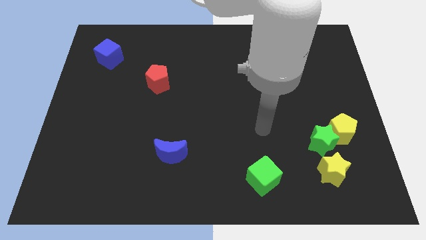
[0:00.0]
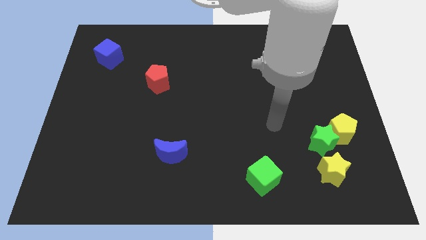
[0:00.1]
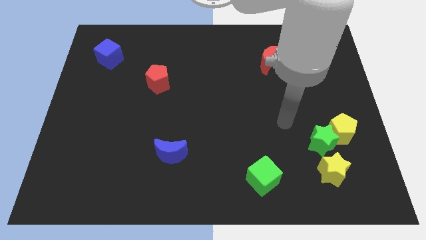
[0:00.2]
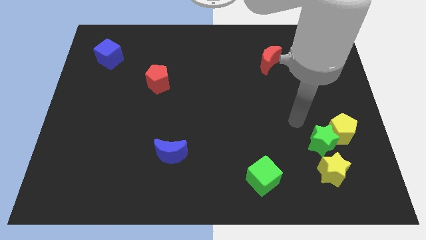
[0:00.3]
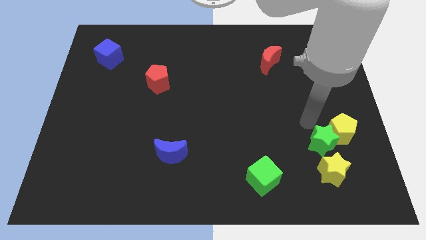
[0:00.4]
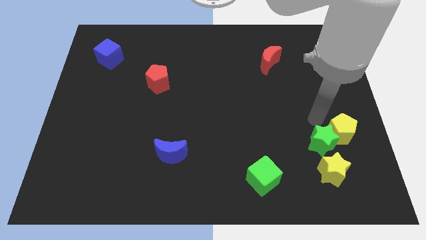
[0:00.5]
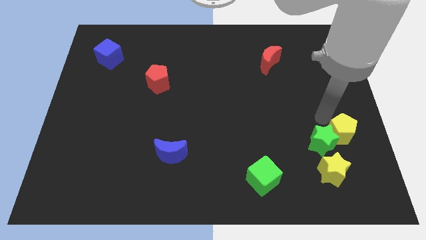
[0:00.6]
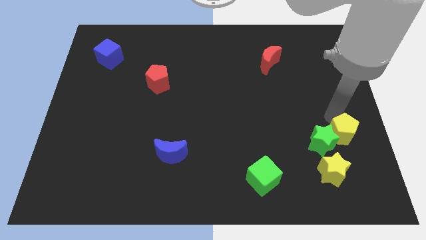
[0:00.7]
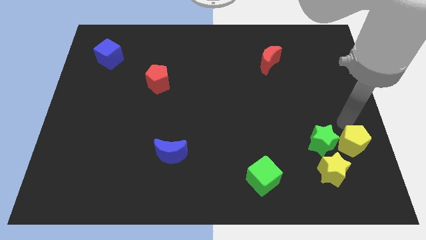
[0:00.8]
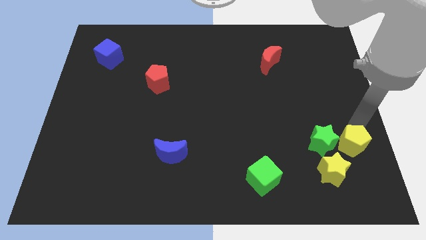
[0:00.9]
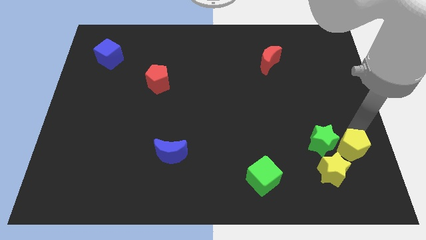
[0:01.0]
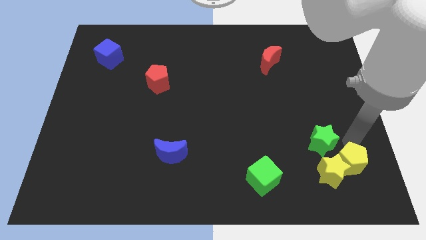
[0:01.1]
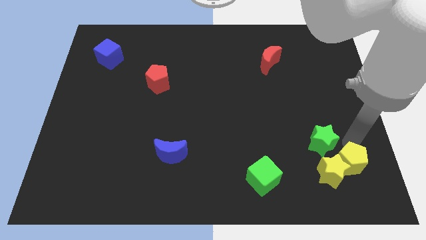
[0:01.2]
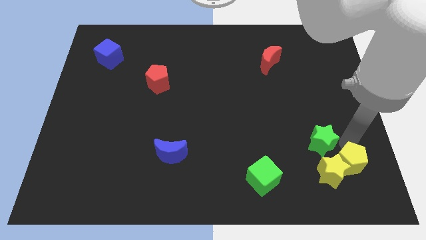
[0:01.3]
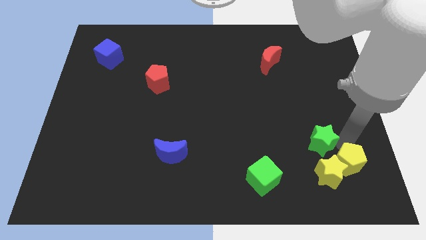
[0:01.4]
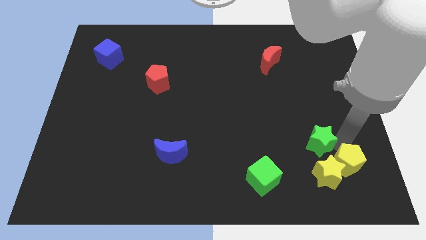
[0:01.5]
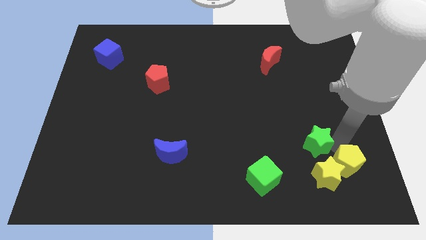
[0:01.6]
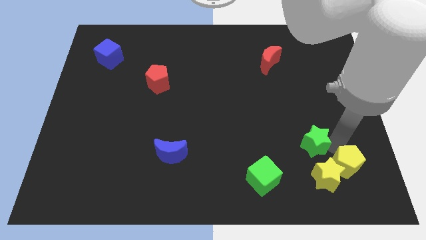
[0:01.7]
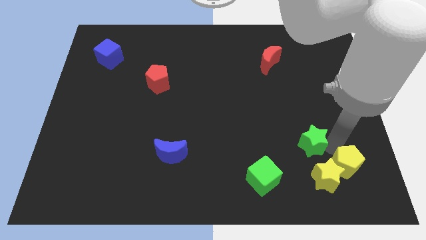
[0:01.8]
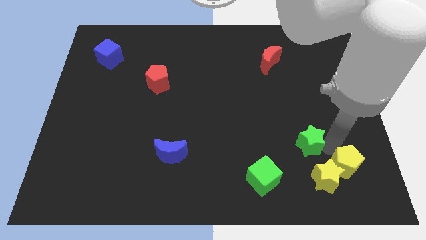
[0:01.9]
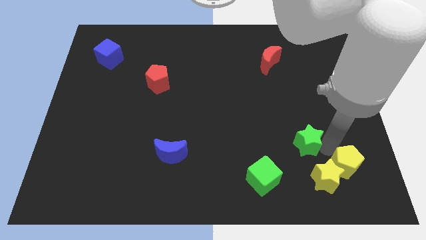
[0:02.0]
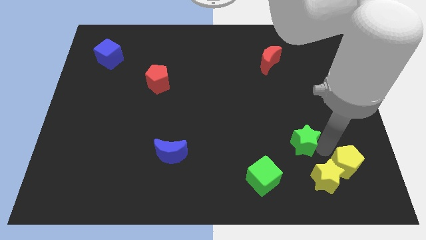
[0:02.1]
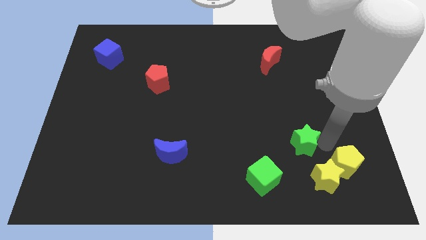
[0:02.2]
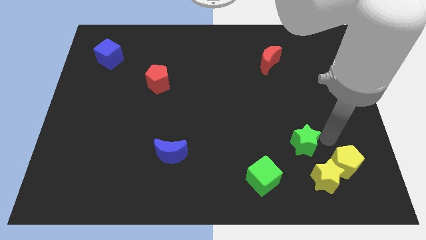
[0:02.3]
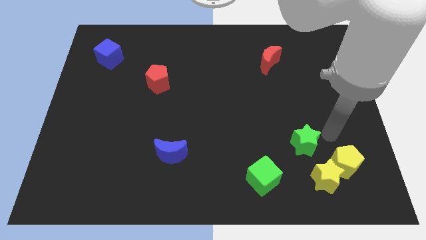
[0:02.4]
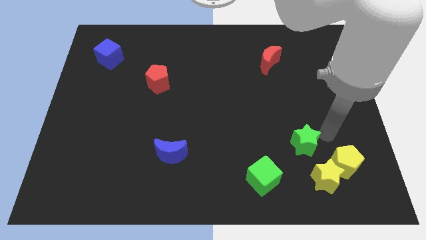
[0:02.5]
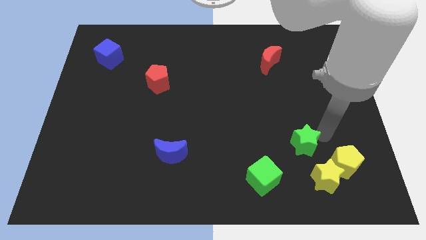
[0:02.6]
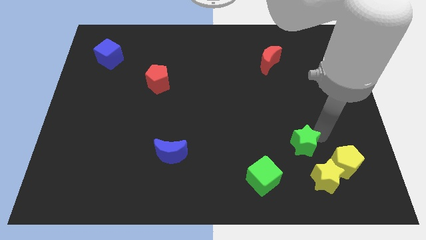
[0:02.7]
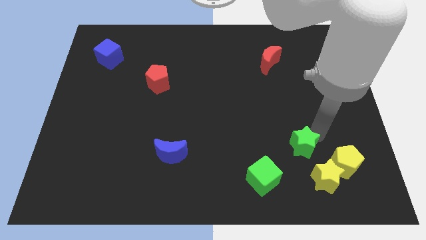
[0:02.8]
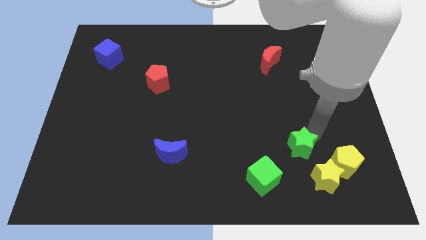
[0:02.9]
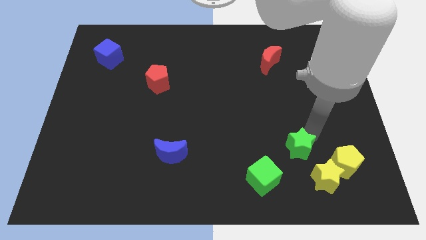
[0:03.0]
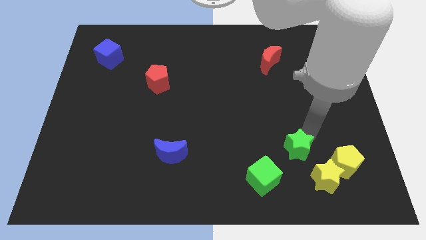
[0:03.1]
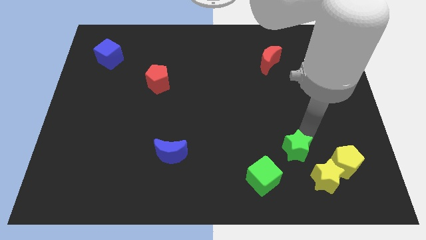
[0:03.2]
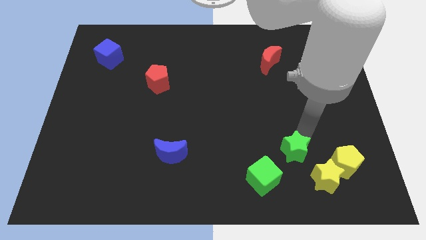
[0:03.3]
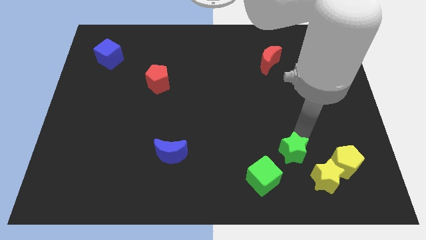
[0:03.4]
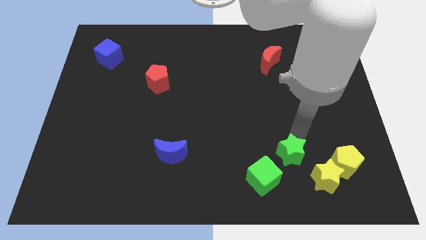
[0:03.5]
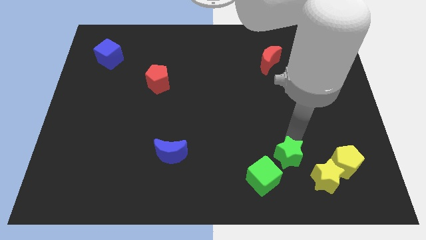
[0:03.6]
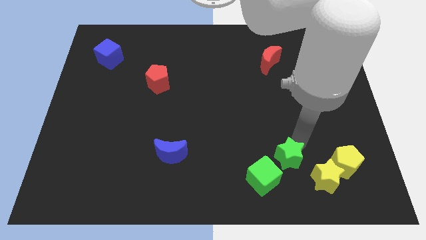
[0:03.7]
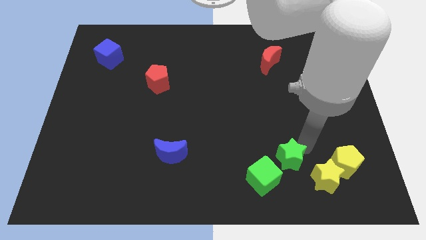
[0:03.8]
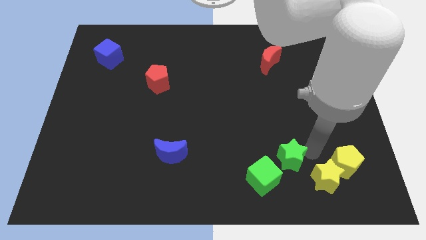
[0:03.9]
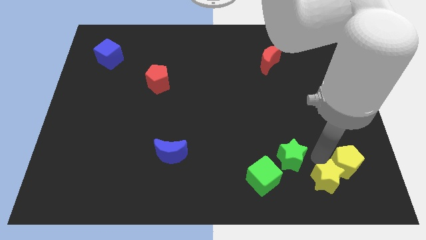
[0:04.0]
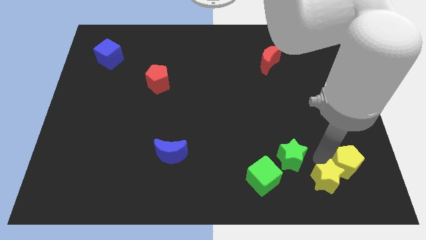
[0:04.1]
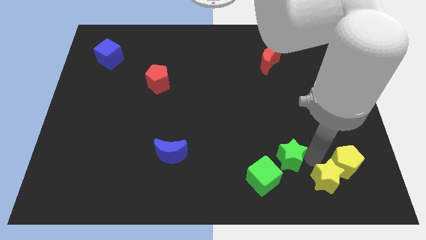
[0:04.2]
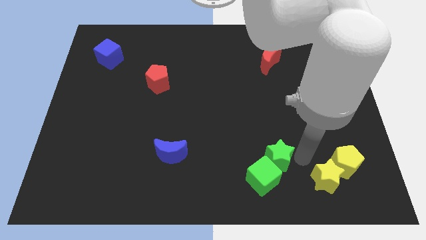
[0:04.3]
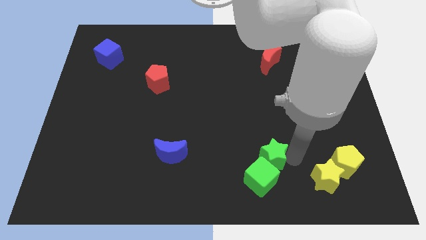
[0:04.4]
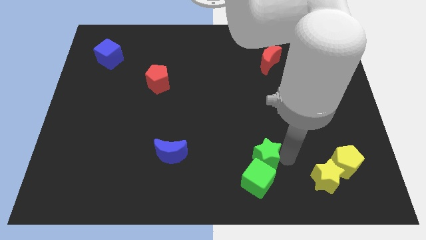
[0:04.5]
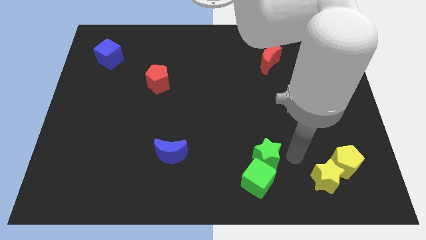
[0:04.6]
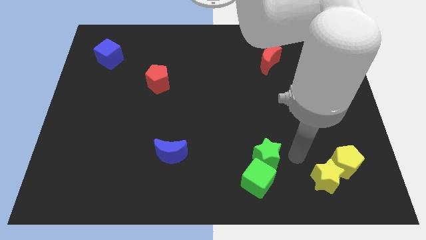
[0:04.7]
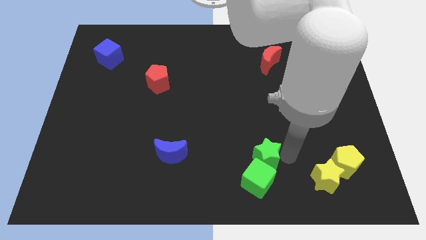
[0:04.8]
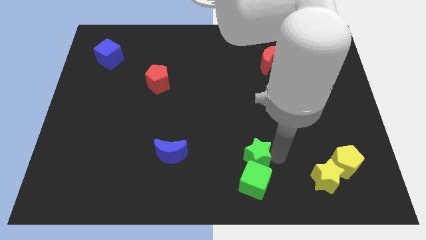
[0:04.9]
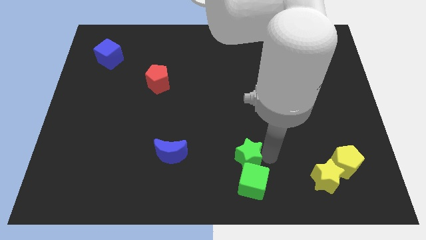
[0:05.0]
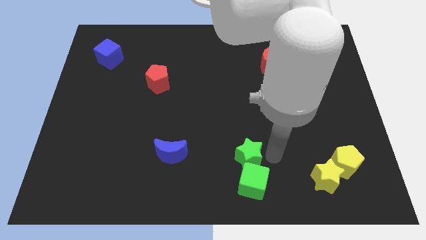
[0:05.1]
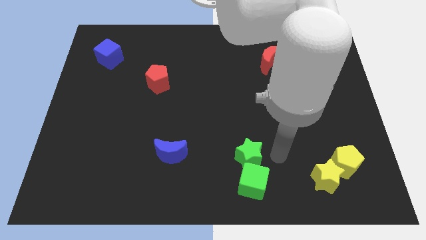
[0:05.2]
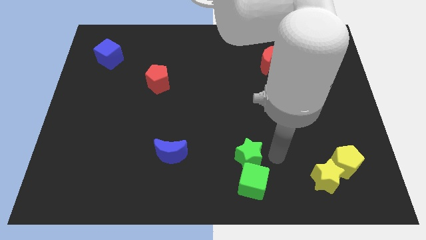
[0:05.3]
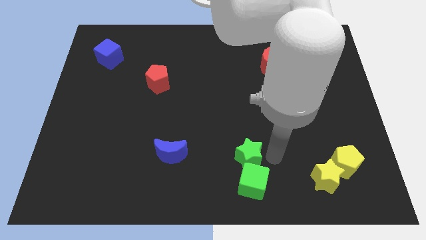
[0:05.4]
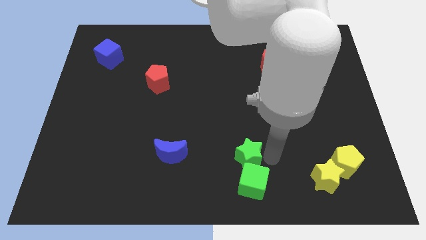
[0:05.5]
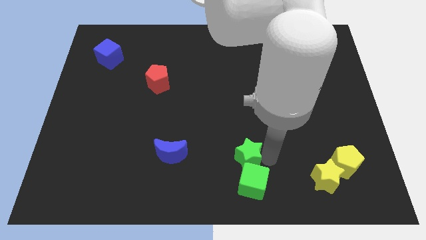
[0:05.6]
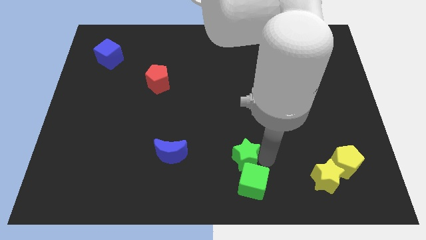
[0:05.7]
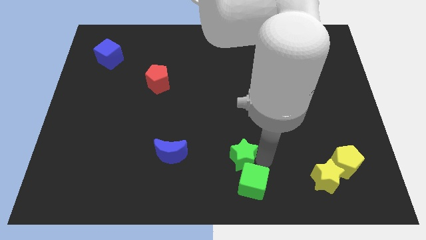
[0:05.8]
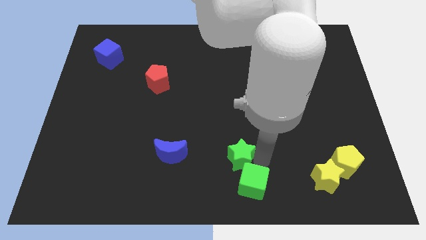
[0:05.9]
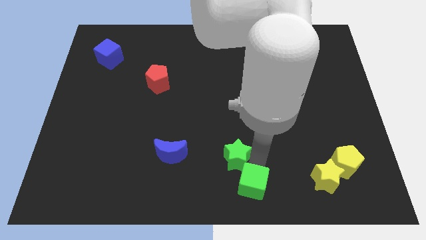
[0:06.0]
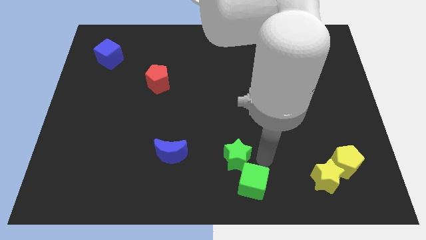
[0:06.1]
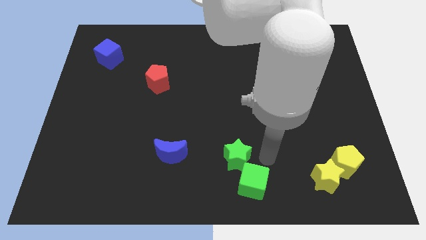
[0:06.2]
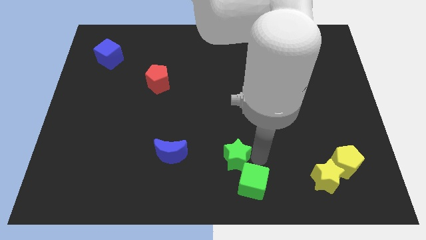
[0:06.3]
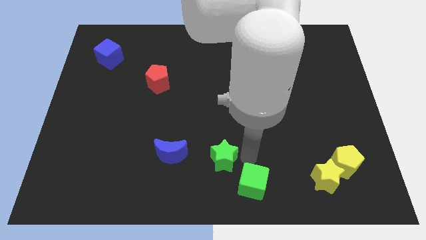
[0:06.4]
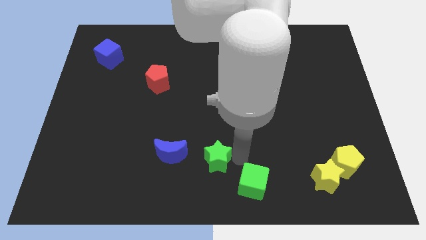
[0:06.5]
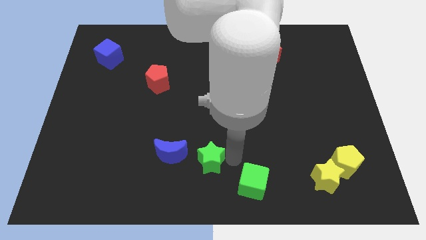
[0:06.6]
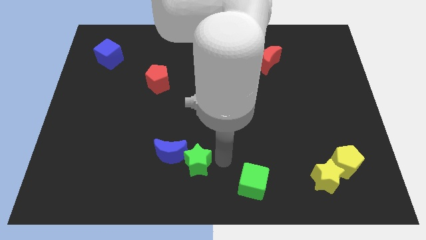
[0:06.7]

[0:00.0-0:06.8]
slide the green star next to the blue moon
